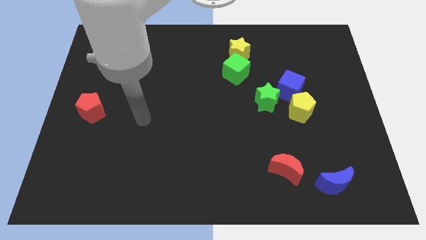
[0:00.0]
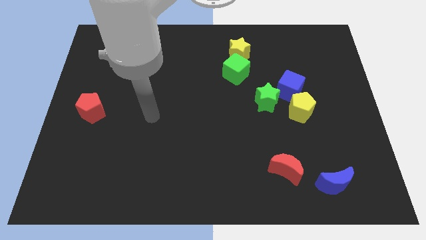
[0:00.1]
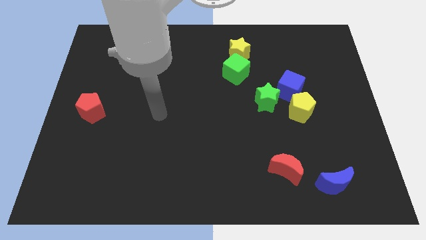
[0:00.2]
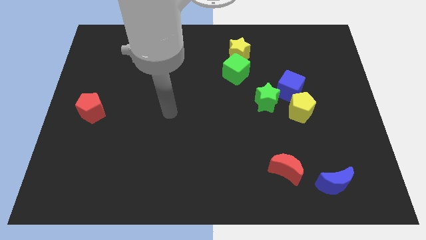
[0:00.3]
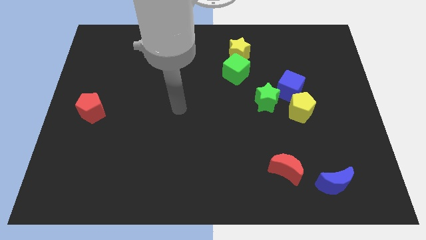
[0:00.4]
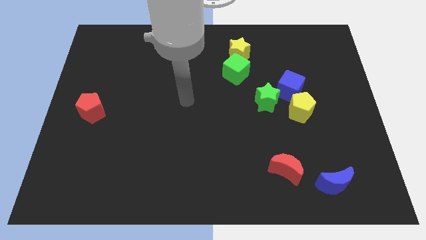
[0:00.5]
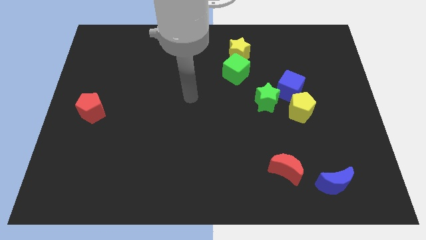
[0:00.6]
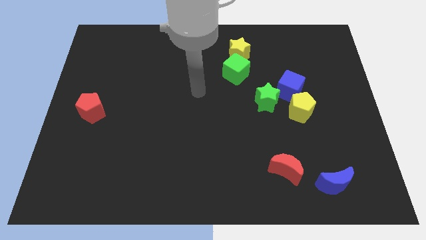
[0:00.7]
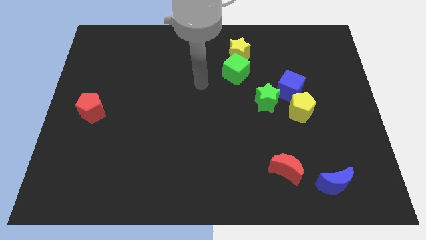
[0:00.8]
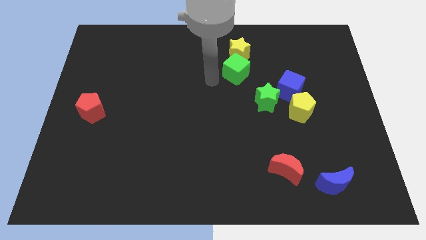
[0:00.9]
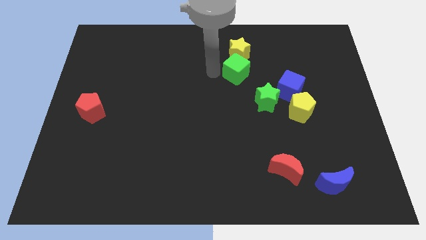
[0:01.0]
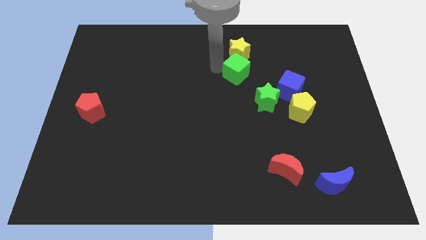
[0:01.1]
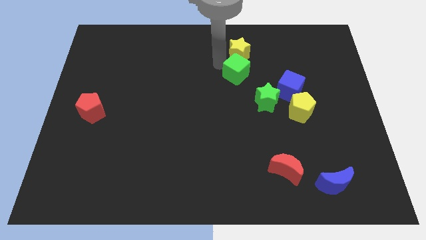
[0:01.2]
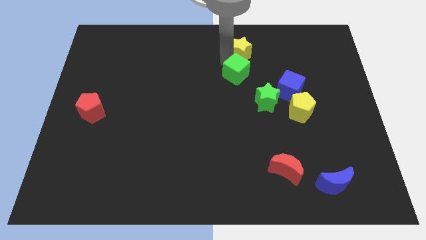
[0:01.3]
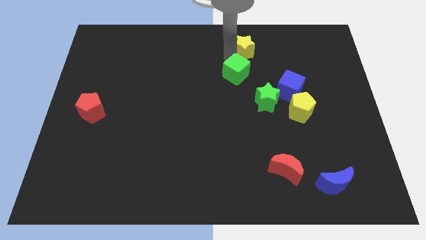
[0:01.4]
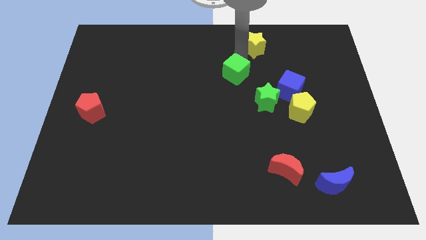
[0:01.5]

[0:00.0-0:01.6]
pull the green cube apart from the yellow star

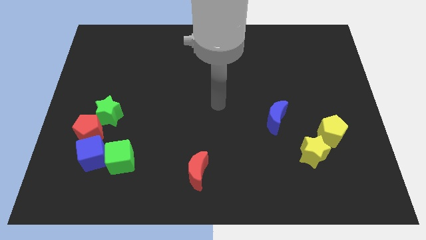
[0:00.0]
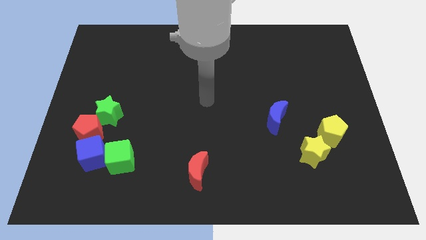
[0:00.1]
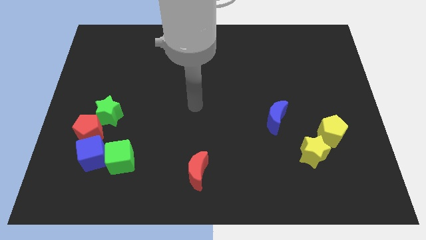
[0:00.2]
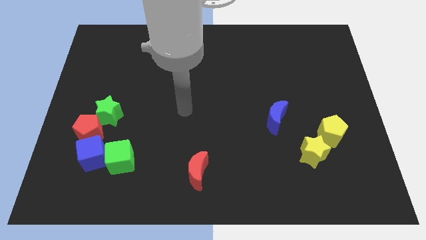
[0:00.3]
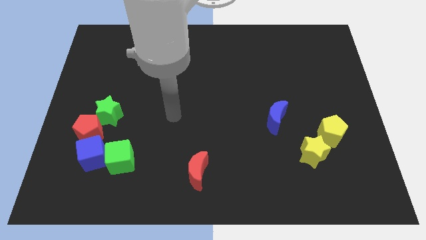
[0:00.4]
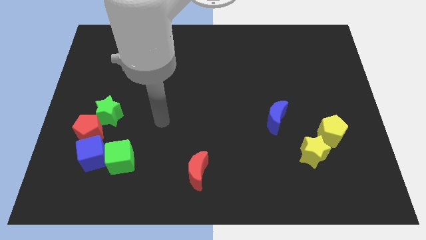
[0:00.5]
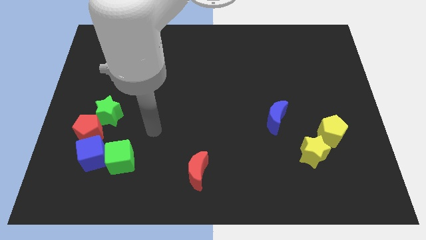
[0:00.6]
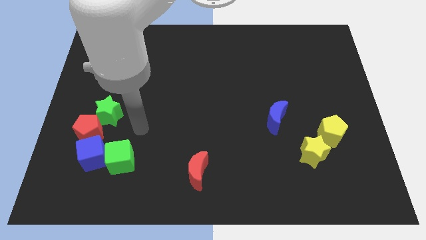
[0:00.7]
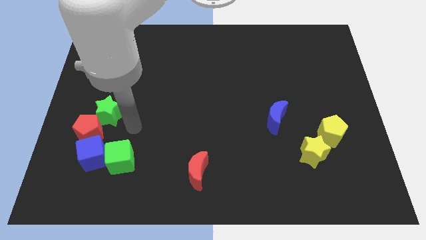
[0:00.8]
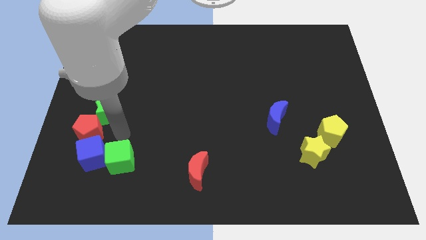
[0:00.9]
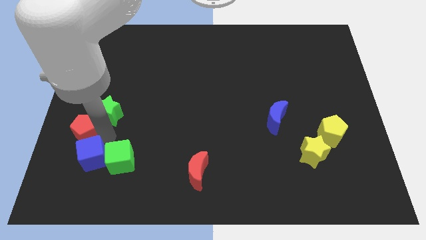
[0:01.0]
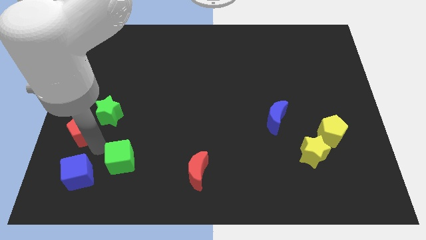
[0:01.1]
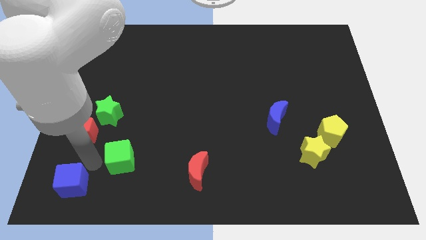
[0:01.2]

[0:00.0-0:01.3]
separate the green cube from the blue cube

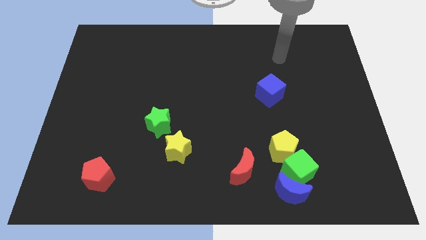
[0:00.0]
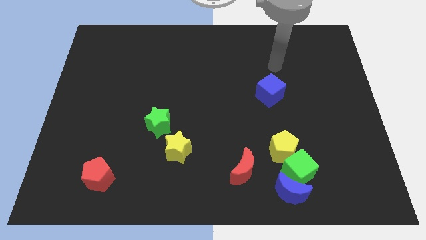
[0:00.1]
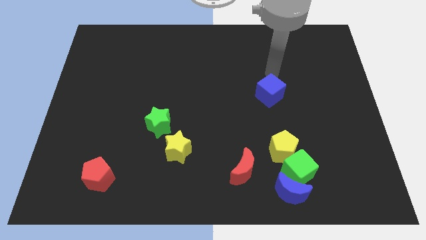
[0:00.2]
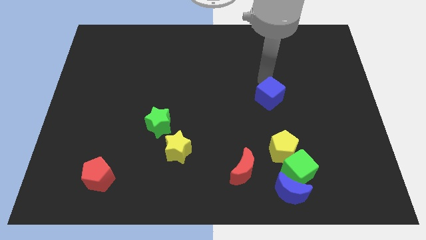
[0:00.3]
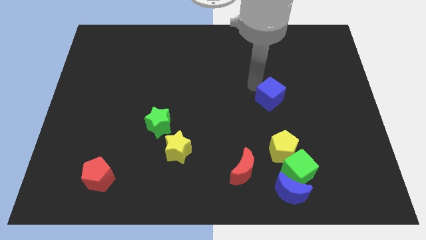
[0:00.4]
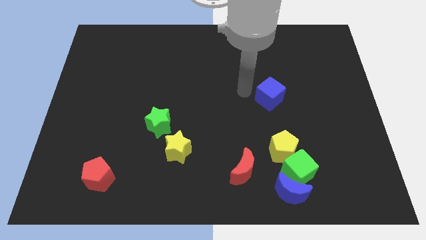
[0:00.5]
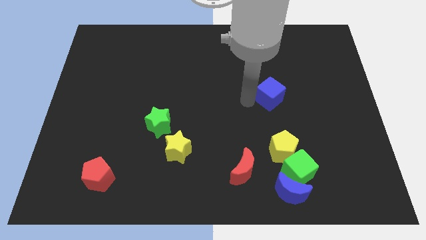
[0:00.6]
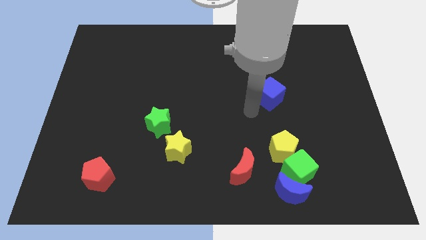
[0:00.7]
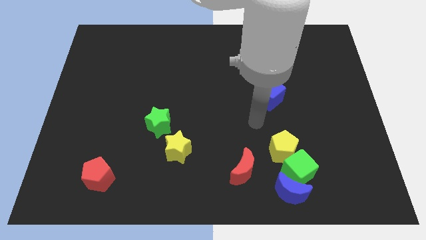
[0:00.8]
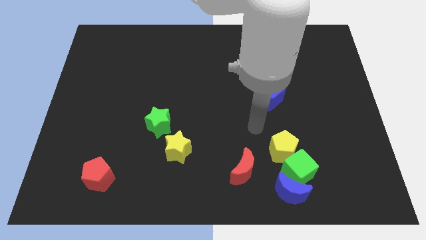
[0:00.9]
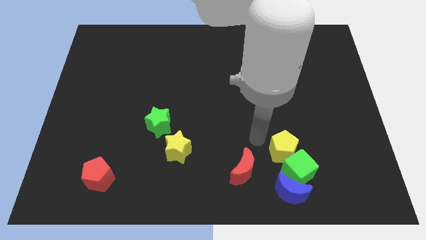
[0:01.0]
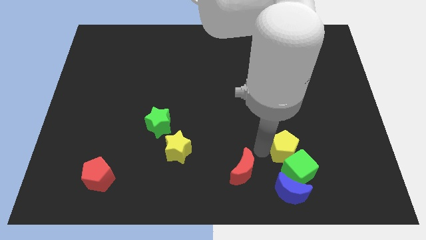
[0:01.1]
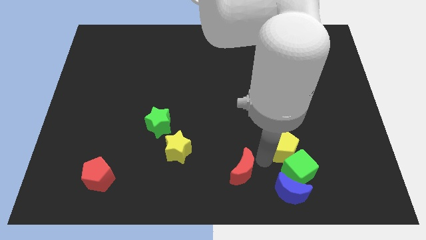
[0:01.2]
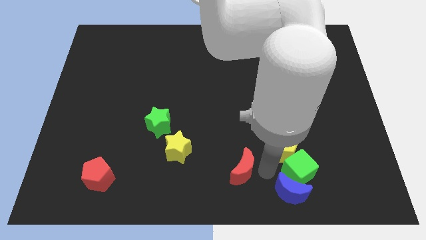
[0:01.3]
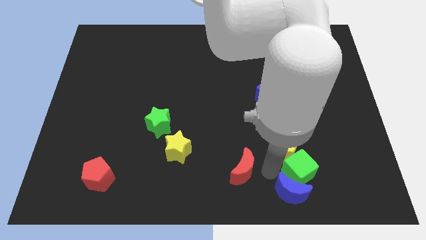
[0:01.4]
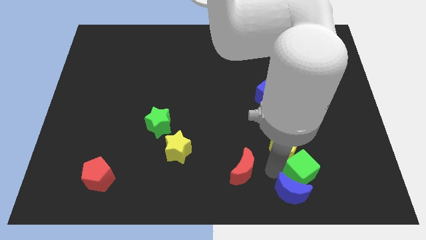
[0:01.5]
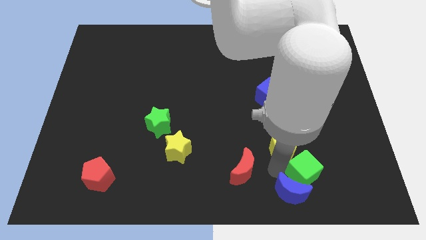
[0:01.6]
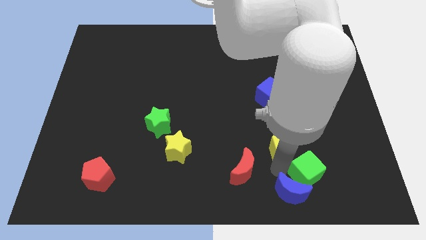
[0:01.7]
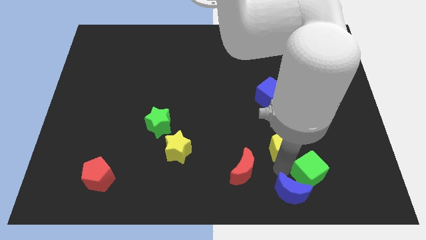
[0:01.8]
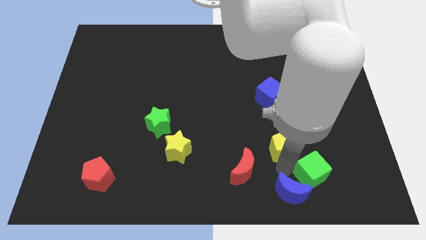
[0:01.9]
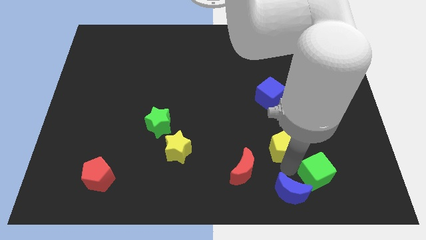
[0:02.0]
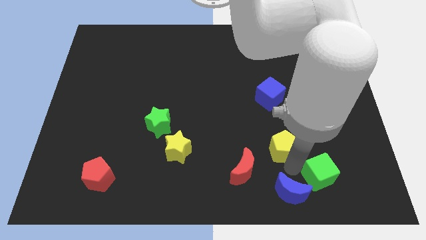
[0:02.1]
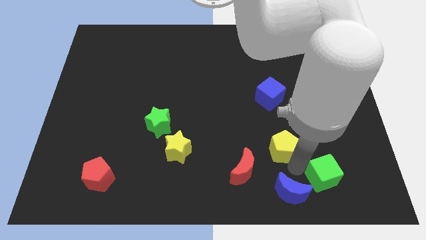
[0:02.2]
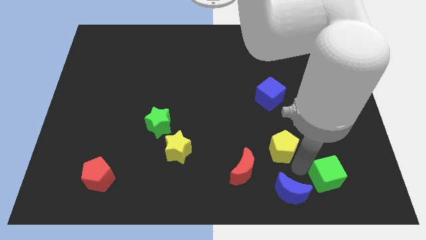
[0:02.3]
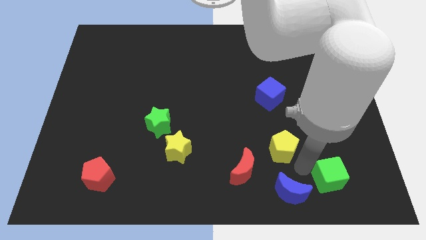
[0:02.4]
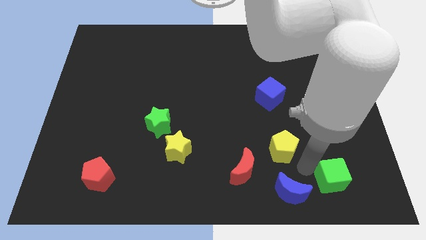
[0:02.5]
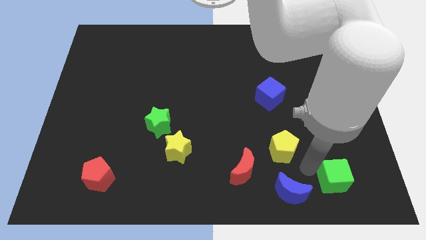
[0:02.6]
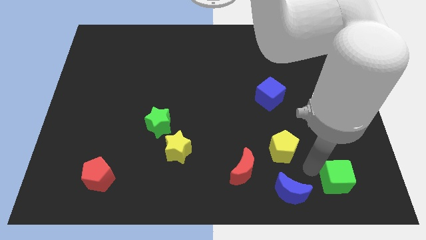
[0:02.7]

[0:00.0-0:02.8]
move the green cube away from the blue moon and yellow pentagon

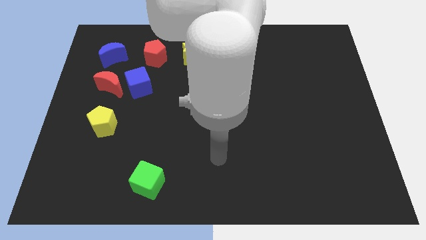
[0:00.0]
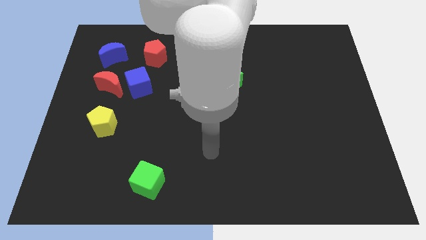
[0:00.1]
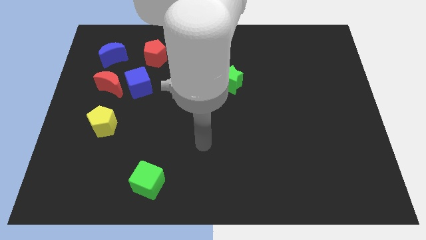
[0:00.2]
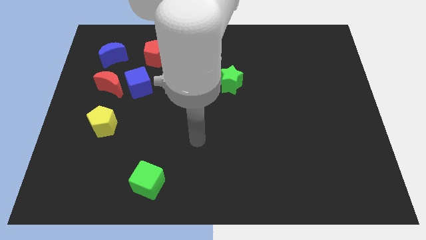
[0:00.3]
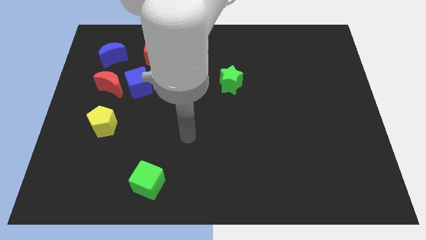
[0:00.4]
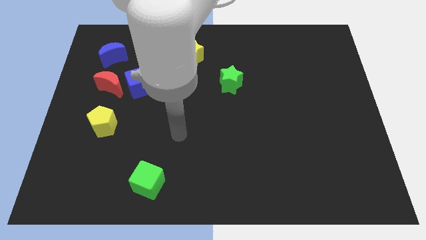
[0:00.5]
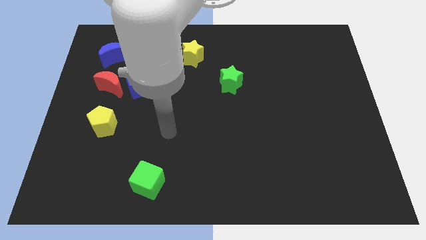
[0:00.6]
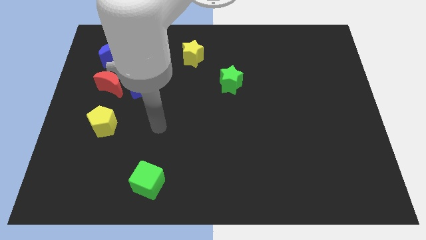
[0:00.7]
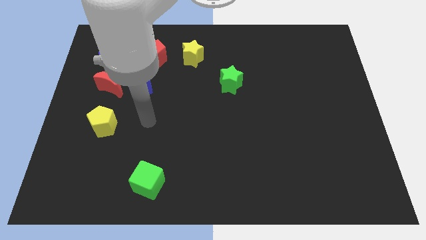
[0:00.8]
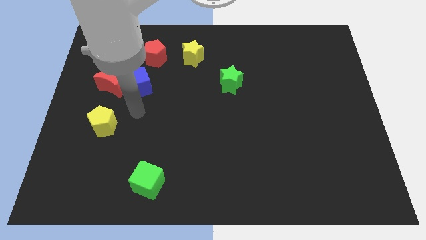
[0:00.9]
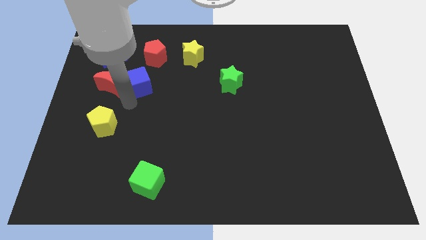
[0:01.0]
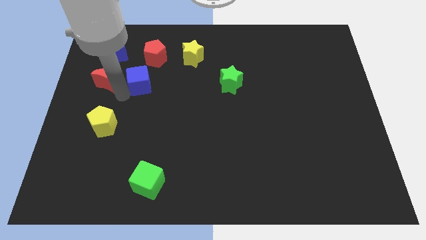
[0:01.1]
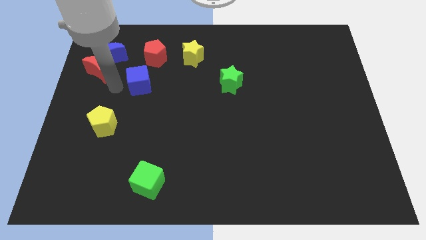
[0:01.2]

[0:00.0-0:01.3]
pull the blue cube apart from the red moon

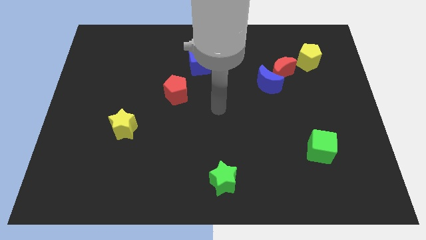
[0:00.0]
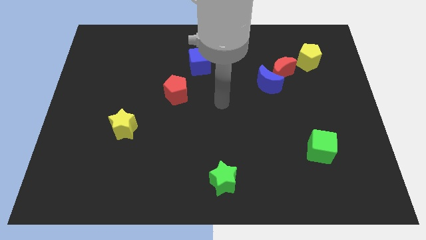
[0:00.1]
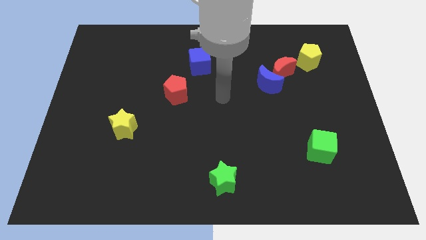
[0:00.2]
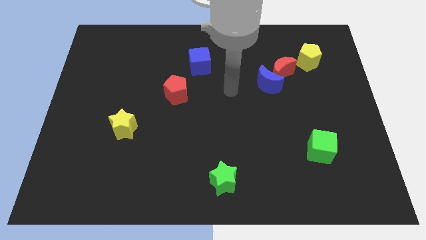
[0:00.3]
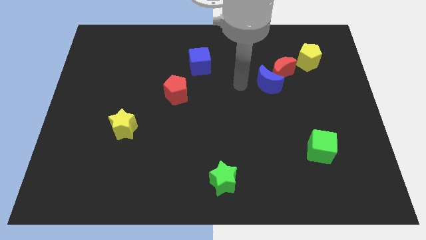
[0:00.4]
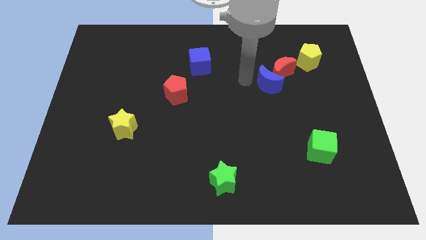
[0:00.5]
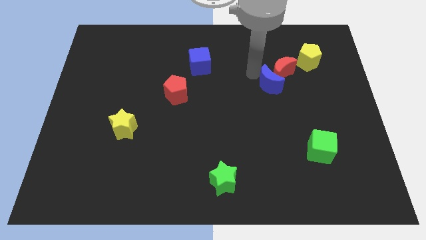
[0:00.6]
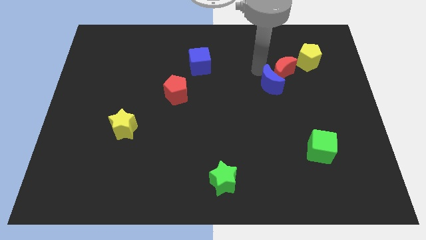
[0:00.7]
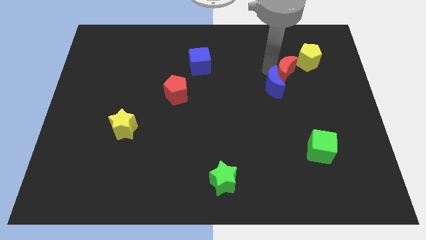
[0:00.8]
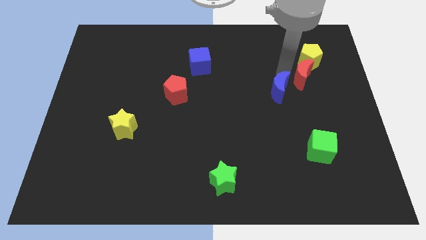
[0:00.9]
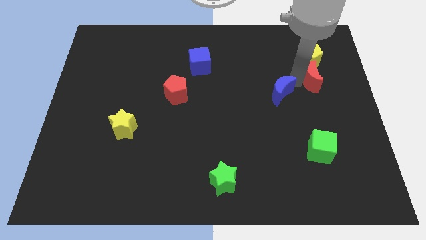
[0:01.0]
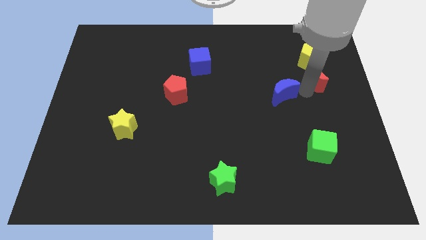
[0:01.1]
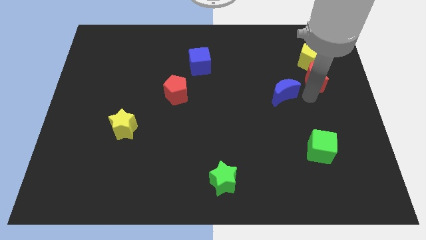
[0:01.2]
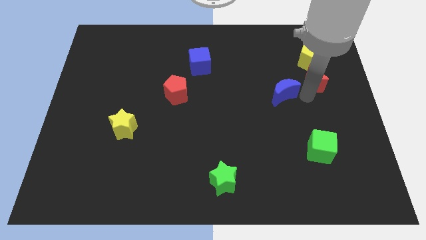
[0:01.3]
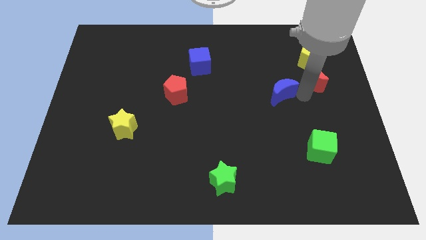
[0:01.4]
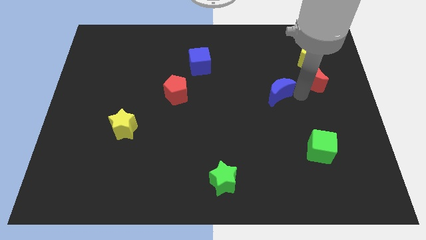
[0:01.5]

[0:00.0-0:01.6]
move the blue moon away from the red moon

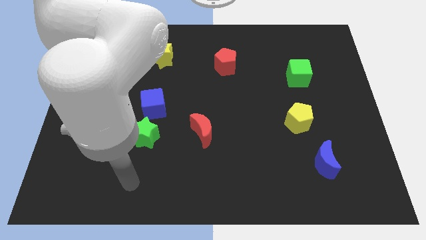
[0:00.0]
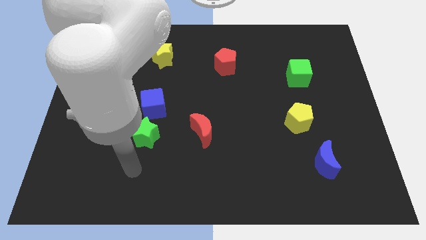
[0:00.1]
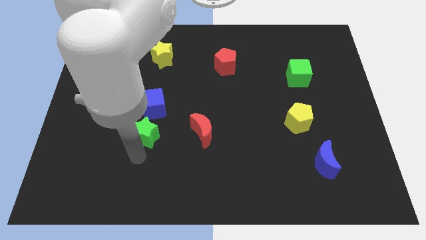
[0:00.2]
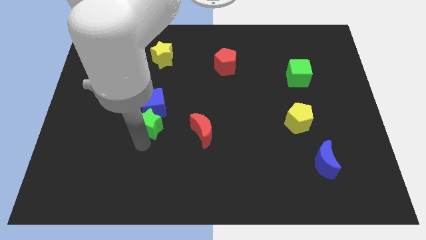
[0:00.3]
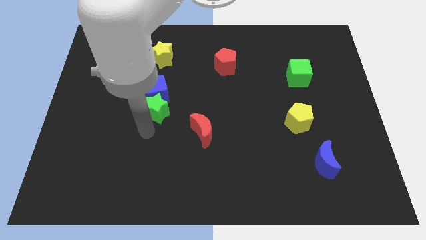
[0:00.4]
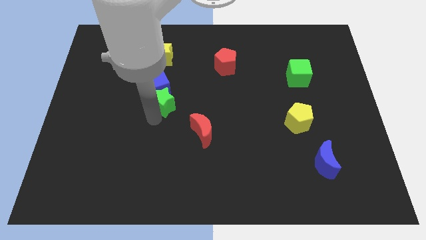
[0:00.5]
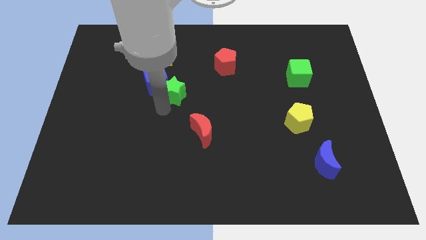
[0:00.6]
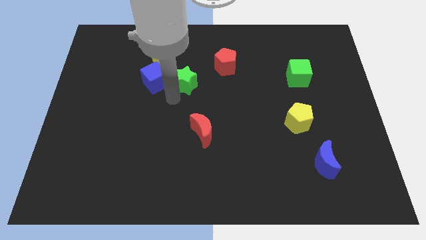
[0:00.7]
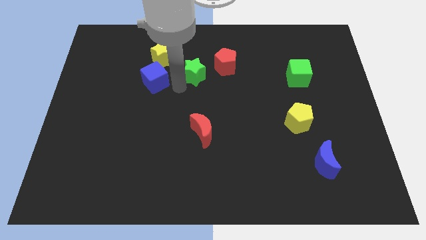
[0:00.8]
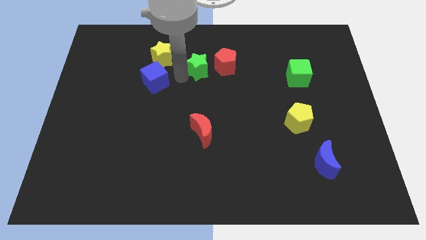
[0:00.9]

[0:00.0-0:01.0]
move the blue cube away from the green star
